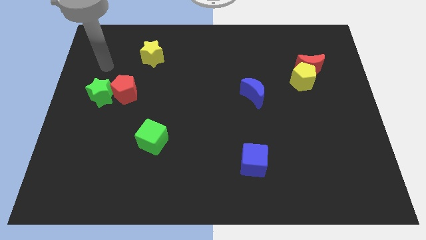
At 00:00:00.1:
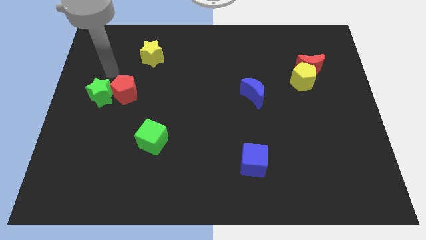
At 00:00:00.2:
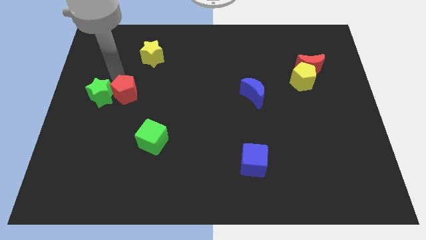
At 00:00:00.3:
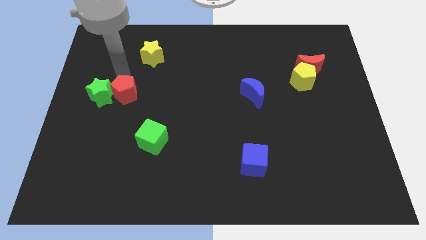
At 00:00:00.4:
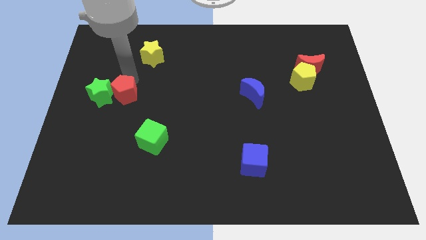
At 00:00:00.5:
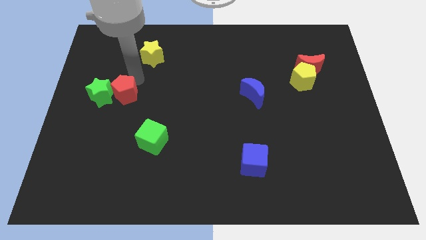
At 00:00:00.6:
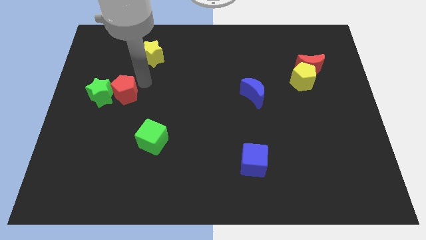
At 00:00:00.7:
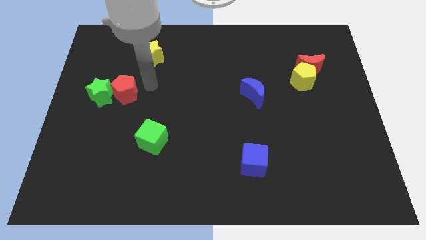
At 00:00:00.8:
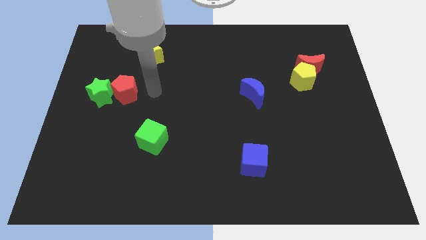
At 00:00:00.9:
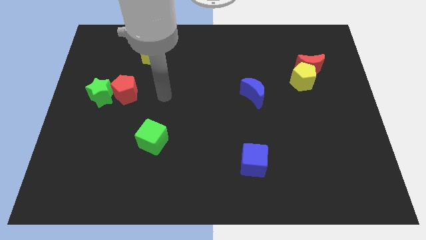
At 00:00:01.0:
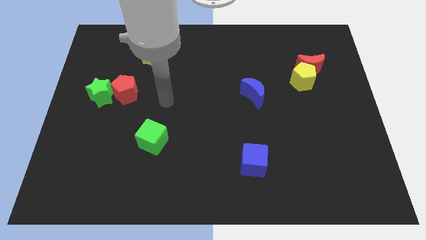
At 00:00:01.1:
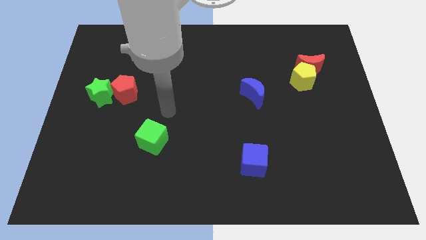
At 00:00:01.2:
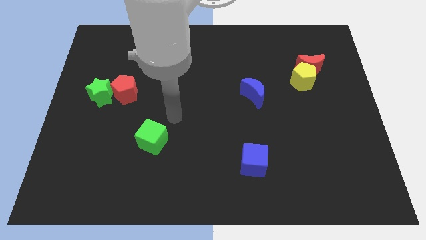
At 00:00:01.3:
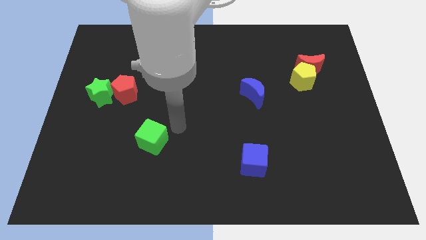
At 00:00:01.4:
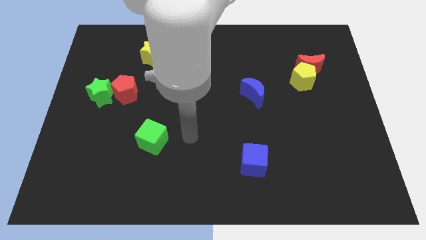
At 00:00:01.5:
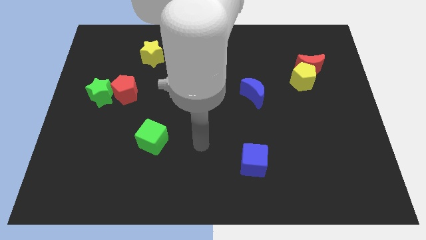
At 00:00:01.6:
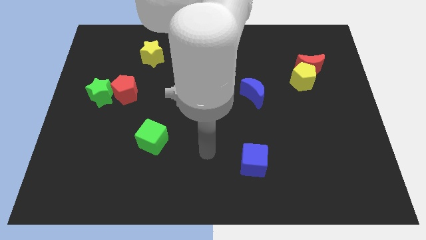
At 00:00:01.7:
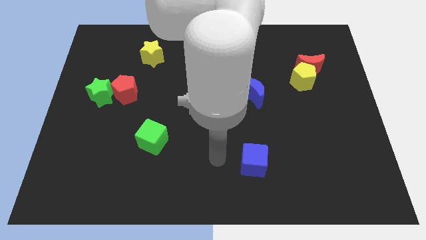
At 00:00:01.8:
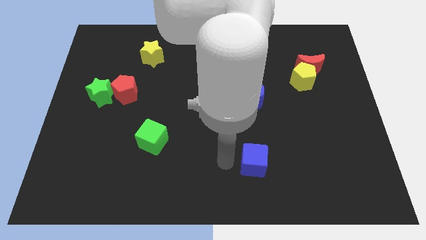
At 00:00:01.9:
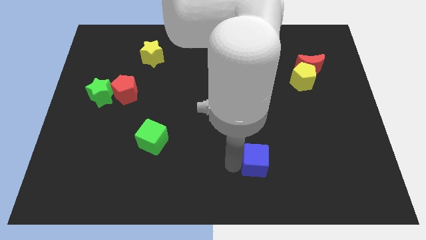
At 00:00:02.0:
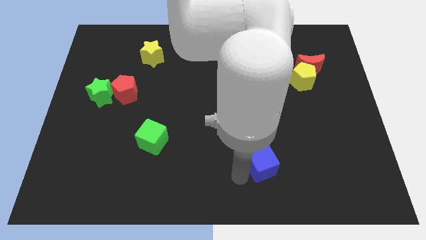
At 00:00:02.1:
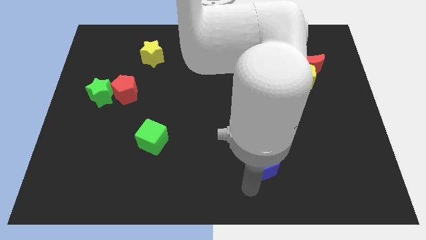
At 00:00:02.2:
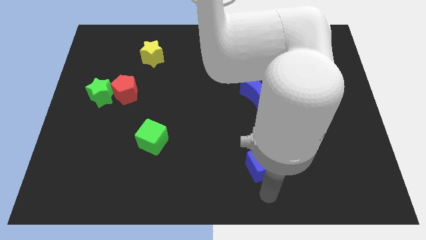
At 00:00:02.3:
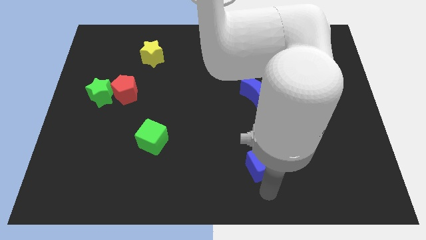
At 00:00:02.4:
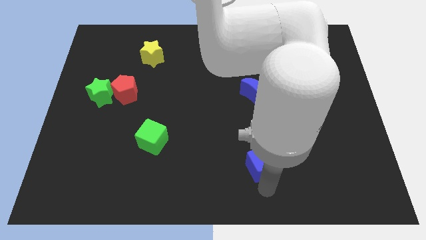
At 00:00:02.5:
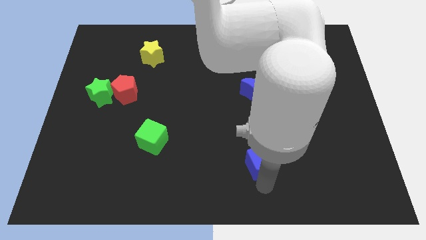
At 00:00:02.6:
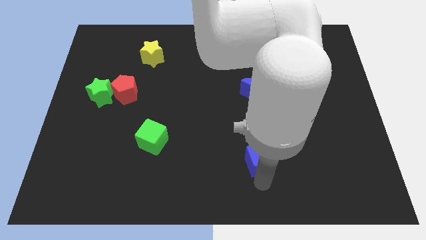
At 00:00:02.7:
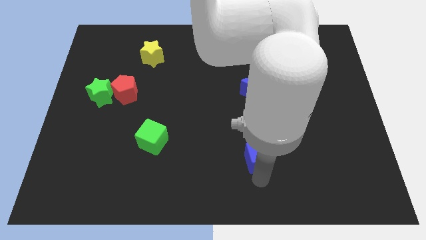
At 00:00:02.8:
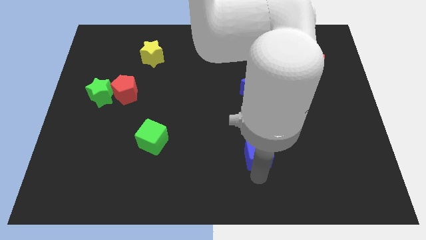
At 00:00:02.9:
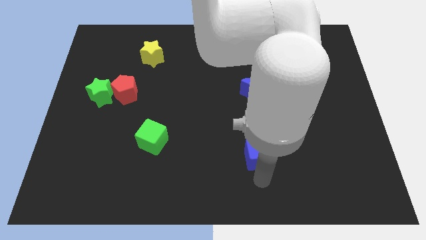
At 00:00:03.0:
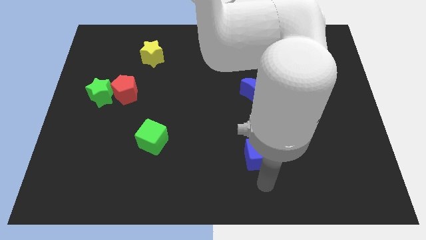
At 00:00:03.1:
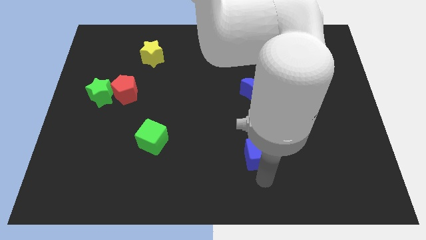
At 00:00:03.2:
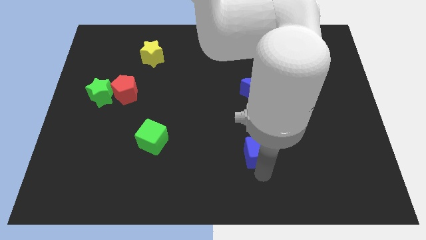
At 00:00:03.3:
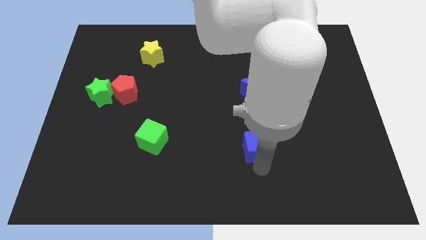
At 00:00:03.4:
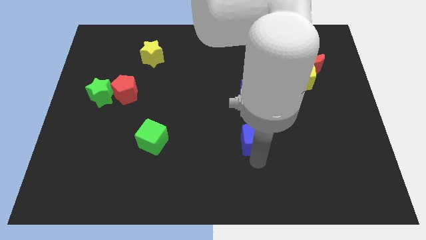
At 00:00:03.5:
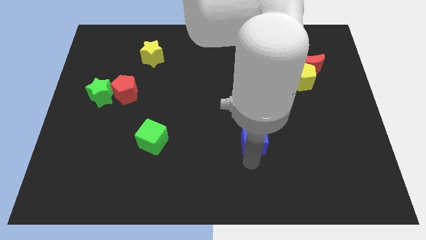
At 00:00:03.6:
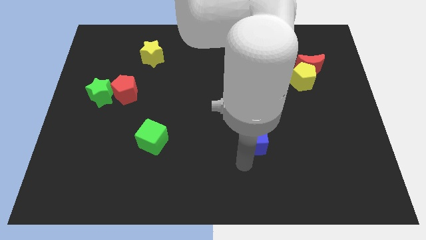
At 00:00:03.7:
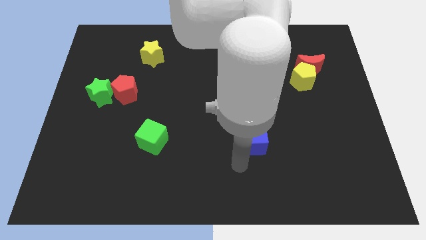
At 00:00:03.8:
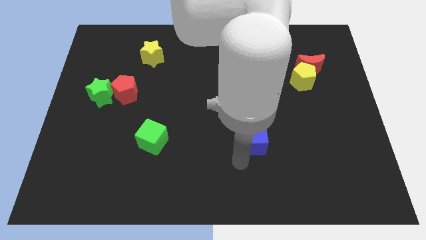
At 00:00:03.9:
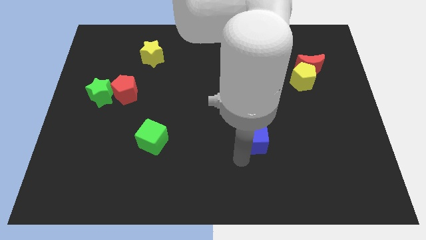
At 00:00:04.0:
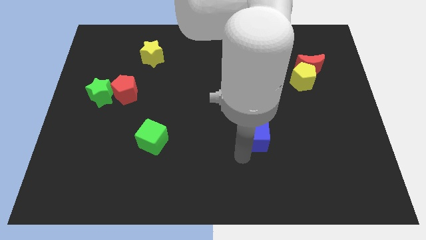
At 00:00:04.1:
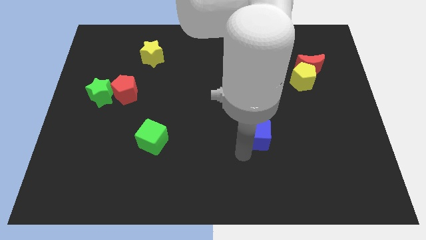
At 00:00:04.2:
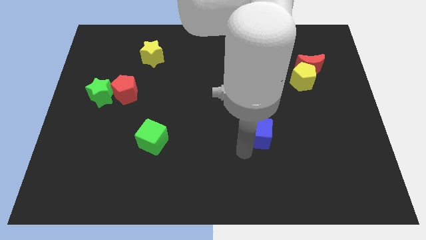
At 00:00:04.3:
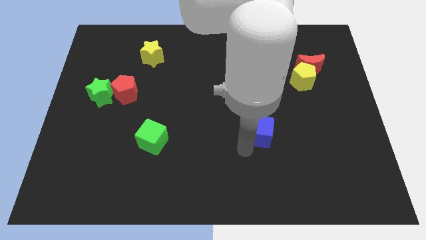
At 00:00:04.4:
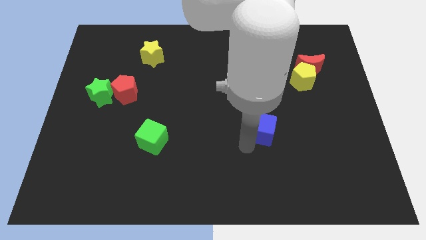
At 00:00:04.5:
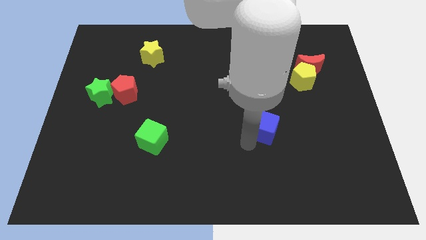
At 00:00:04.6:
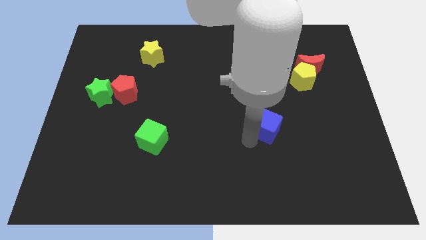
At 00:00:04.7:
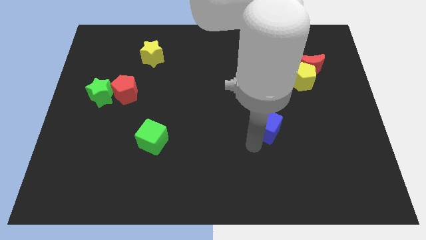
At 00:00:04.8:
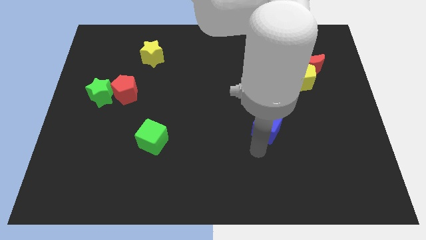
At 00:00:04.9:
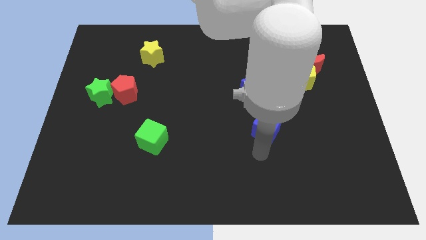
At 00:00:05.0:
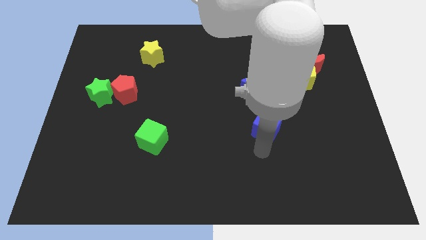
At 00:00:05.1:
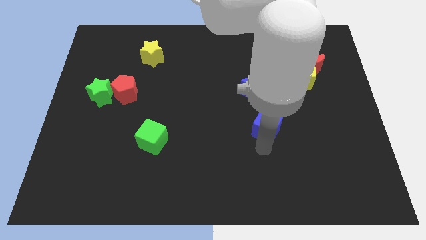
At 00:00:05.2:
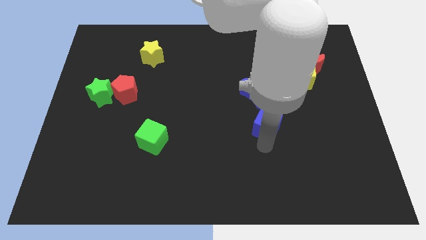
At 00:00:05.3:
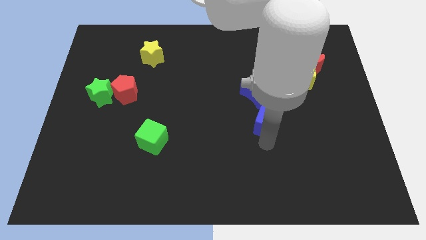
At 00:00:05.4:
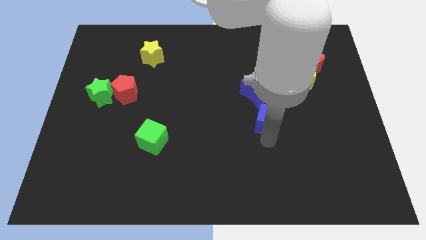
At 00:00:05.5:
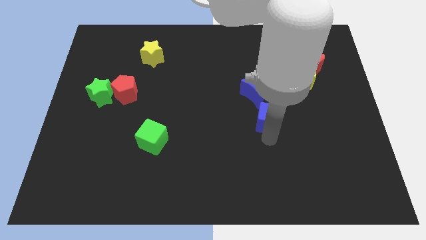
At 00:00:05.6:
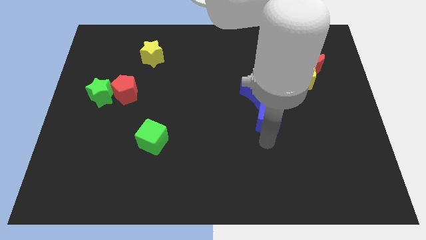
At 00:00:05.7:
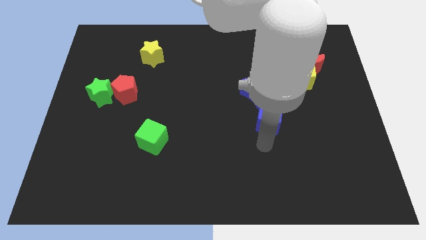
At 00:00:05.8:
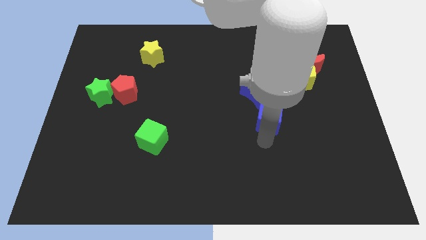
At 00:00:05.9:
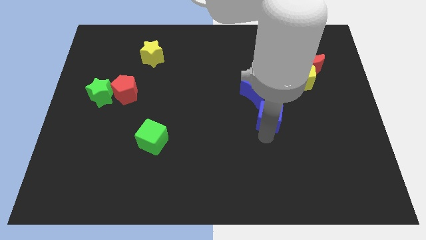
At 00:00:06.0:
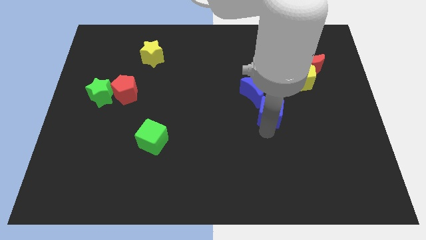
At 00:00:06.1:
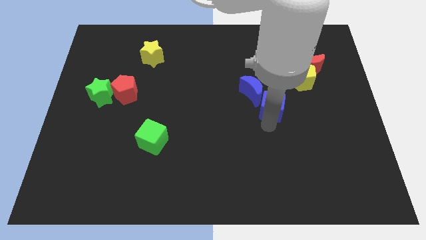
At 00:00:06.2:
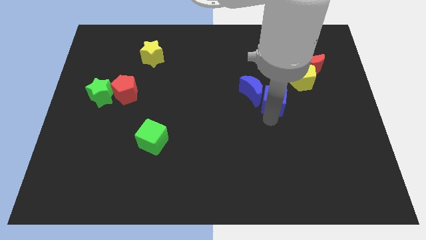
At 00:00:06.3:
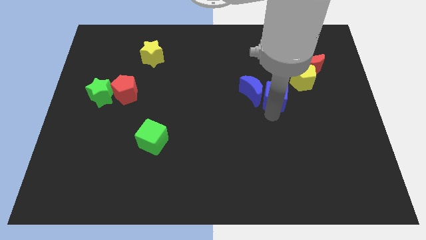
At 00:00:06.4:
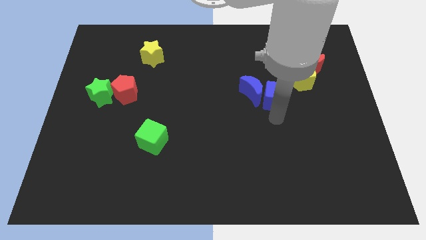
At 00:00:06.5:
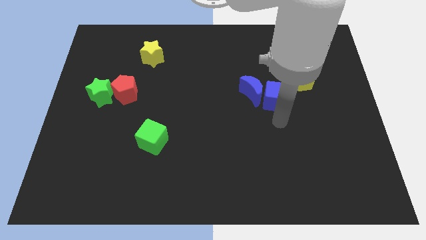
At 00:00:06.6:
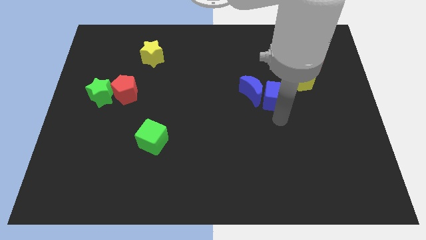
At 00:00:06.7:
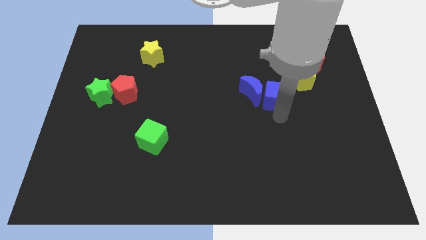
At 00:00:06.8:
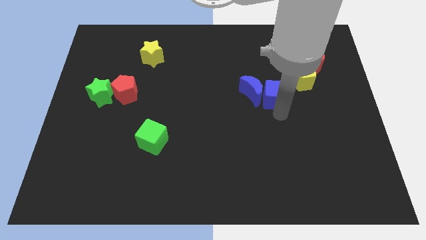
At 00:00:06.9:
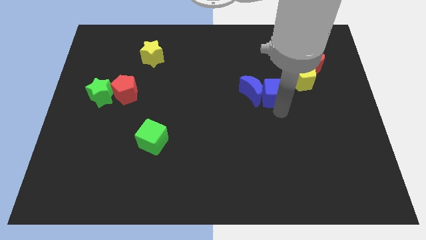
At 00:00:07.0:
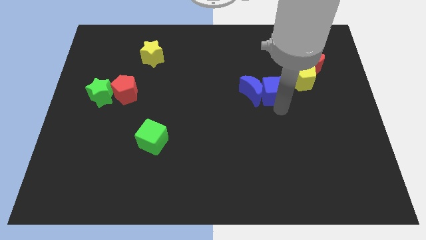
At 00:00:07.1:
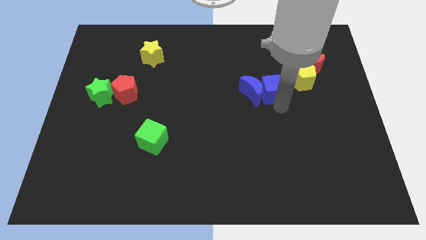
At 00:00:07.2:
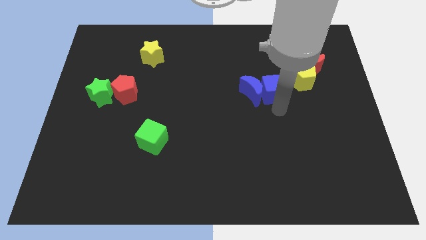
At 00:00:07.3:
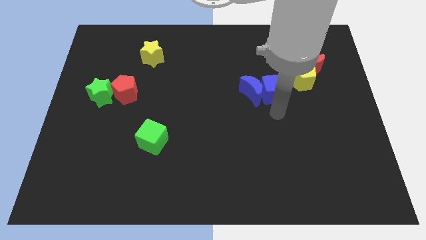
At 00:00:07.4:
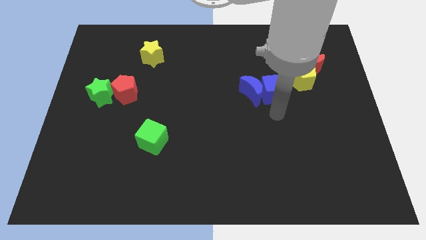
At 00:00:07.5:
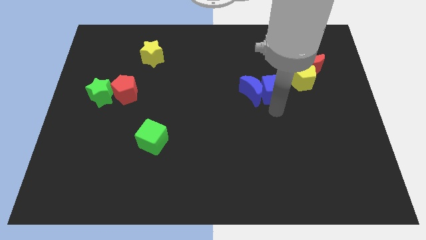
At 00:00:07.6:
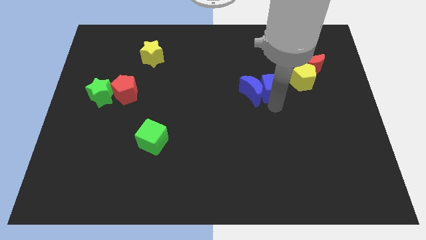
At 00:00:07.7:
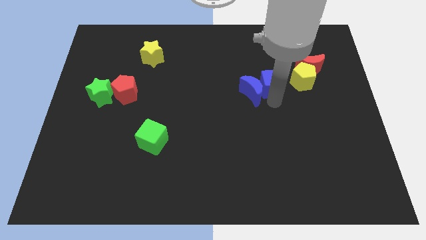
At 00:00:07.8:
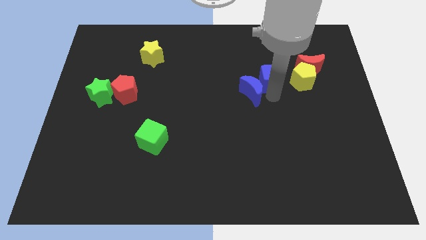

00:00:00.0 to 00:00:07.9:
put the blue cube left of the red moon
